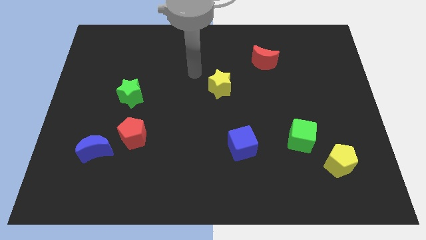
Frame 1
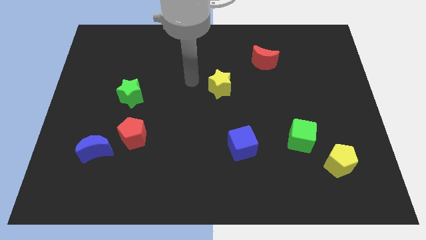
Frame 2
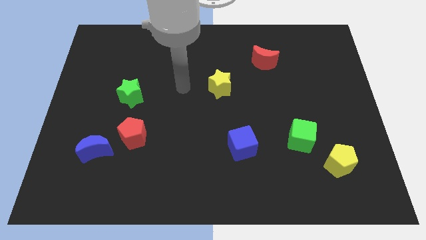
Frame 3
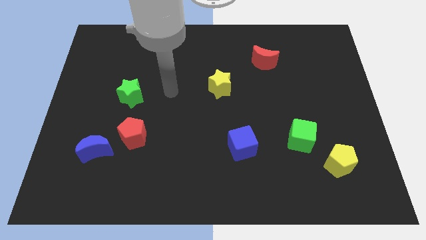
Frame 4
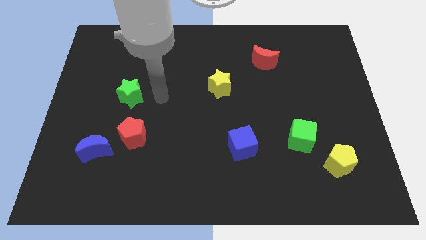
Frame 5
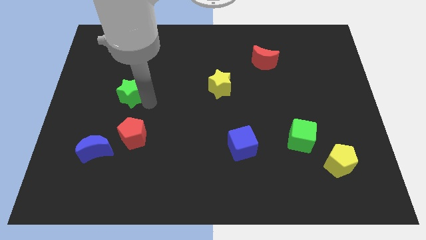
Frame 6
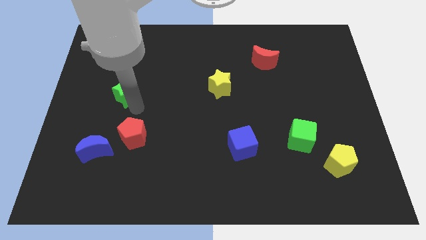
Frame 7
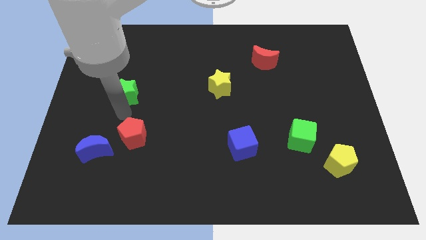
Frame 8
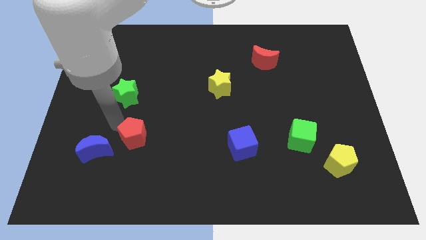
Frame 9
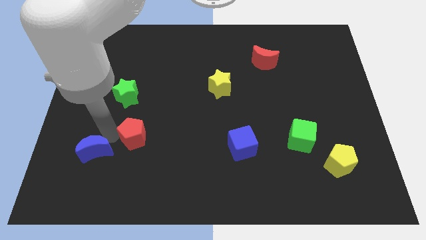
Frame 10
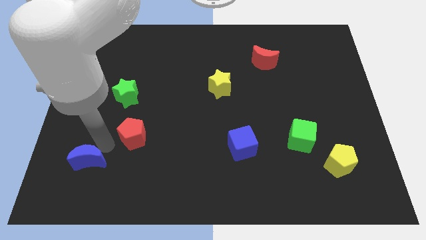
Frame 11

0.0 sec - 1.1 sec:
separate the red pentagon from the blue moon

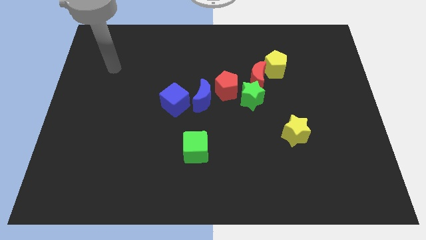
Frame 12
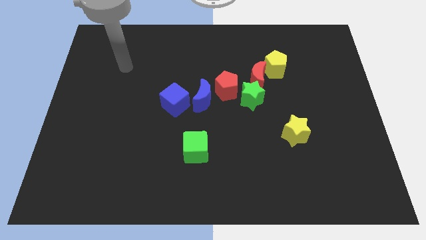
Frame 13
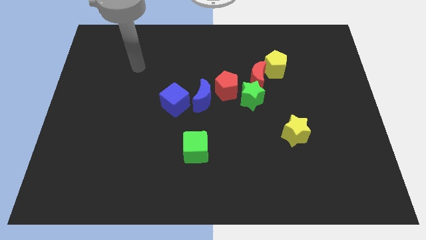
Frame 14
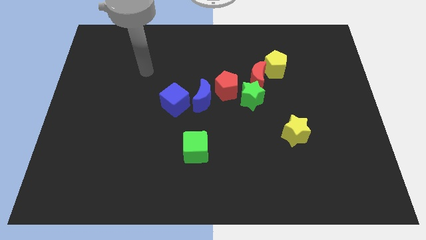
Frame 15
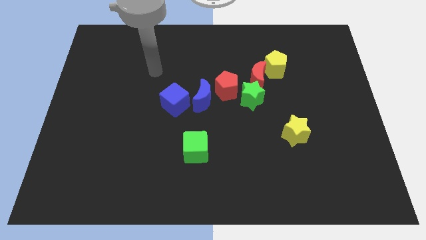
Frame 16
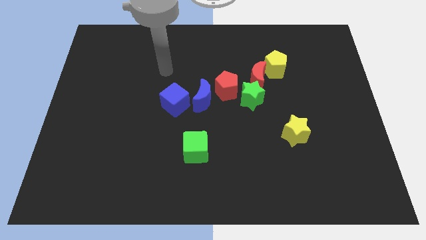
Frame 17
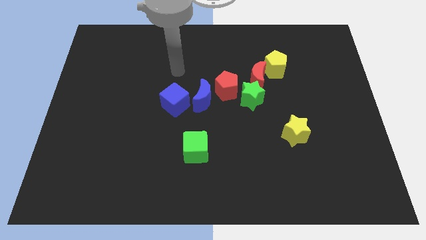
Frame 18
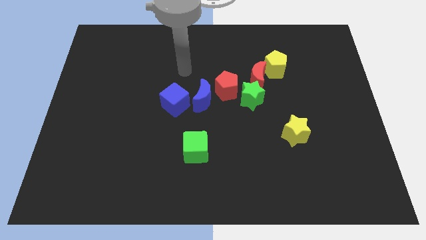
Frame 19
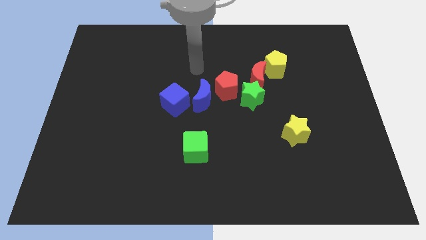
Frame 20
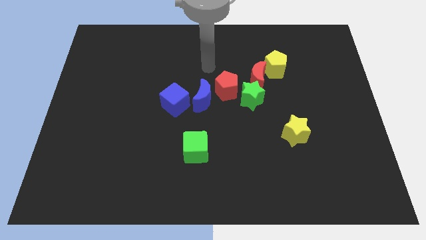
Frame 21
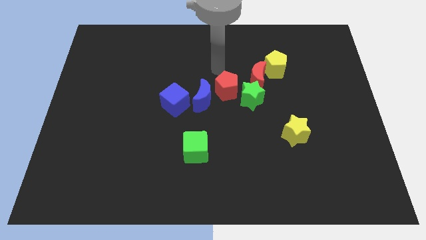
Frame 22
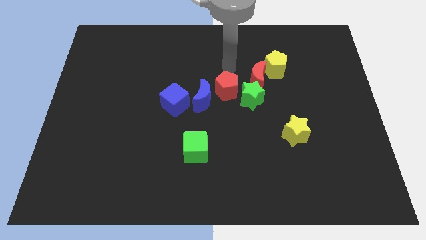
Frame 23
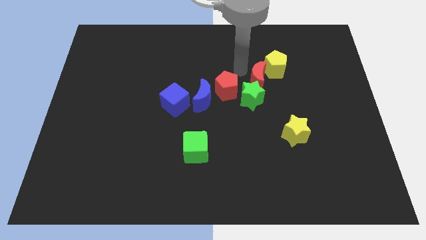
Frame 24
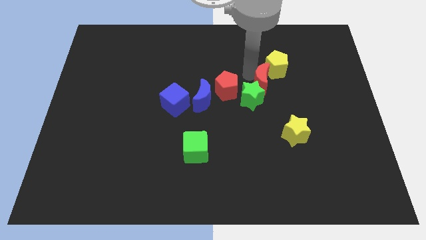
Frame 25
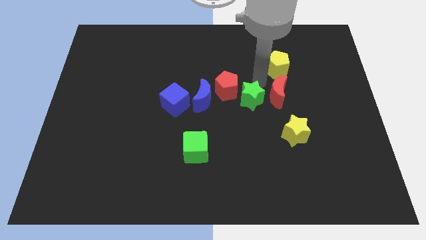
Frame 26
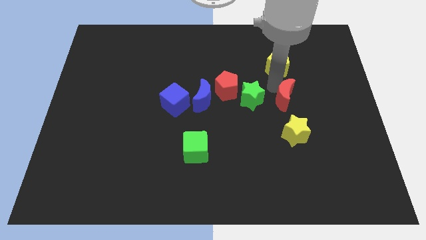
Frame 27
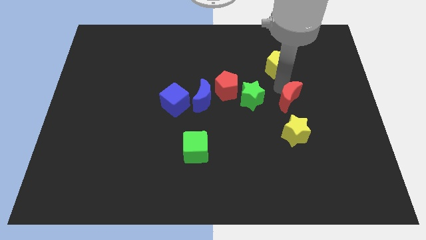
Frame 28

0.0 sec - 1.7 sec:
separate the yellow pentagon from the red moon

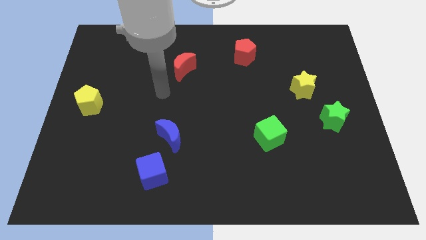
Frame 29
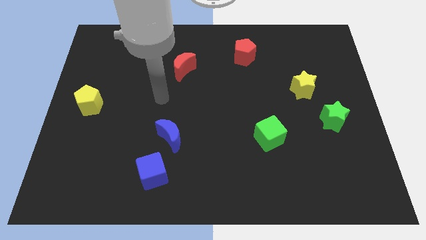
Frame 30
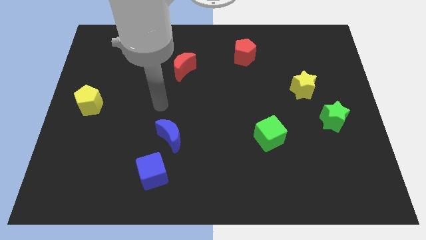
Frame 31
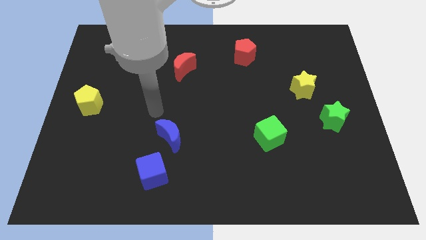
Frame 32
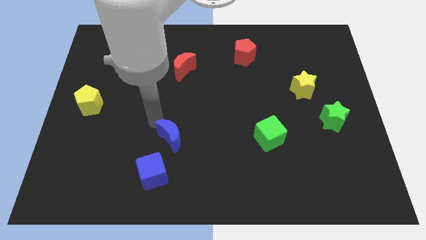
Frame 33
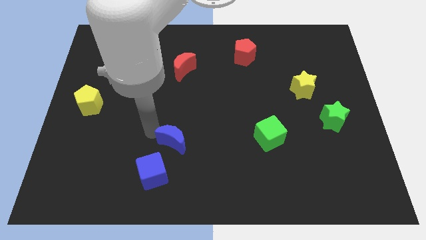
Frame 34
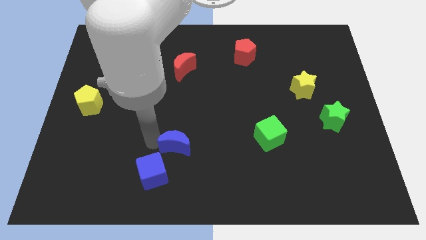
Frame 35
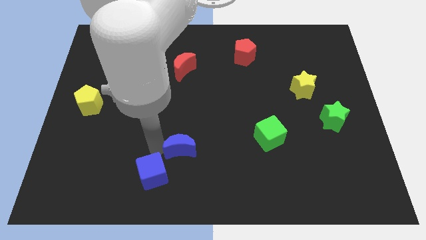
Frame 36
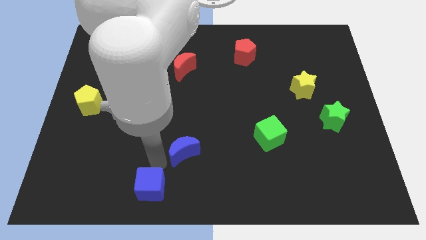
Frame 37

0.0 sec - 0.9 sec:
move the blue moon away from the blue cube

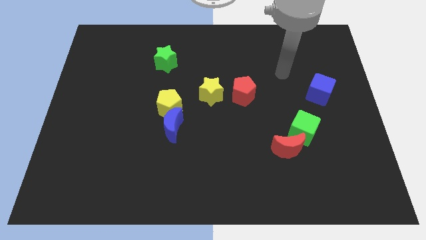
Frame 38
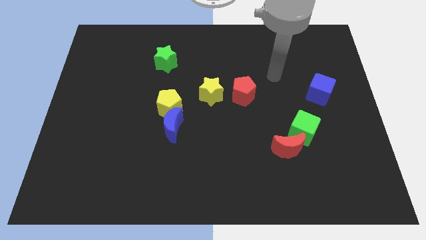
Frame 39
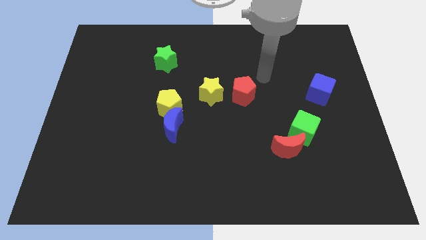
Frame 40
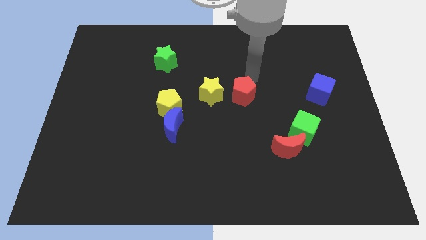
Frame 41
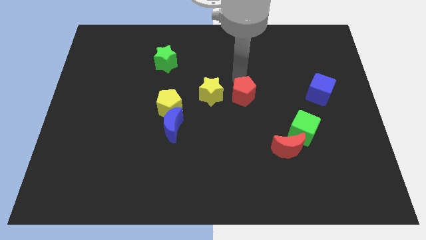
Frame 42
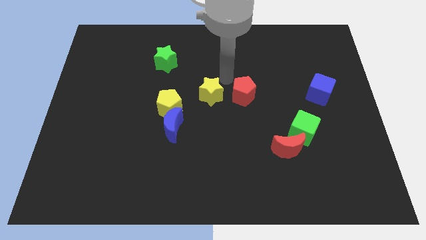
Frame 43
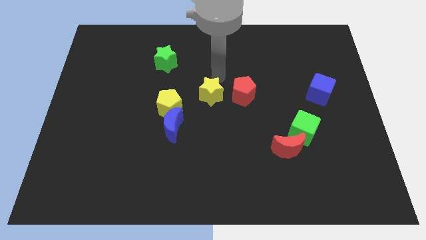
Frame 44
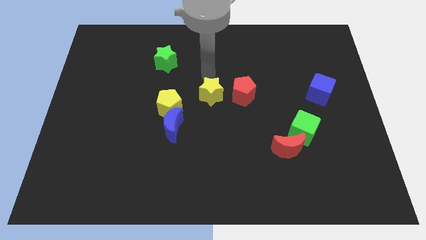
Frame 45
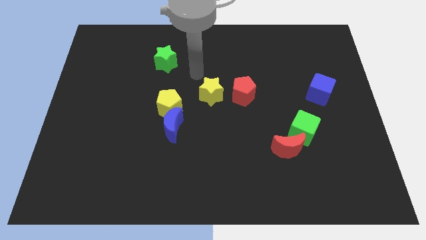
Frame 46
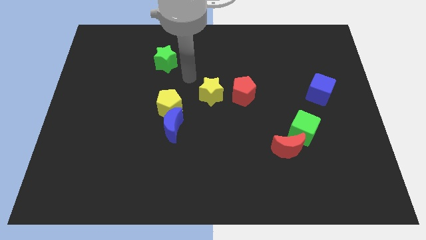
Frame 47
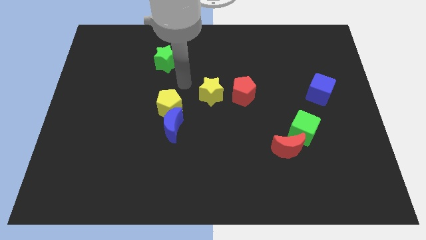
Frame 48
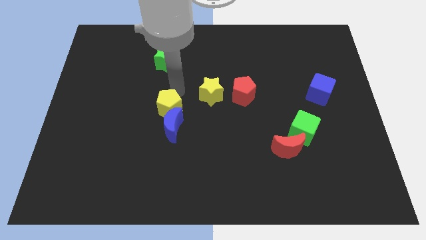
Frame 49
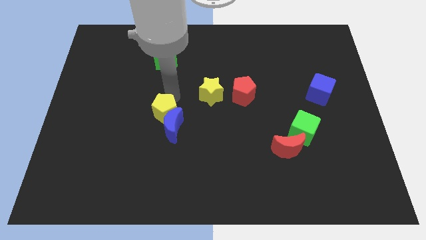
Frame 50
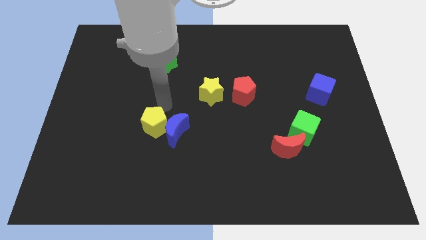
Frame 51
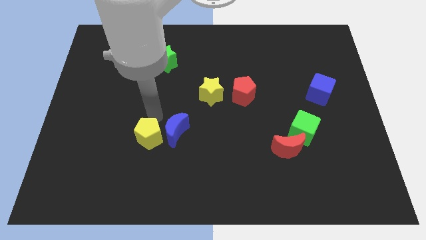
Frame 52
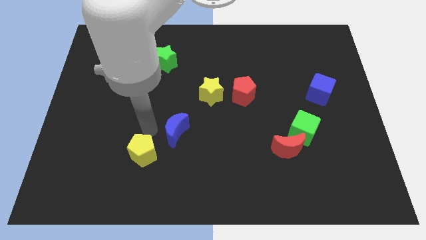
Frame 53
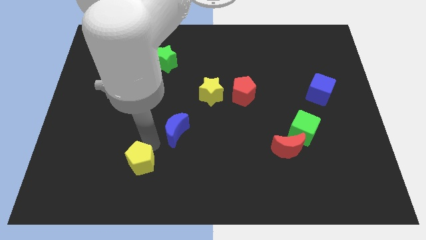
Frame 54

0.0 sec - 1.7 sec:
pull the blue moon apart from the yellow pentagon

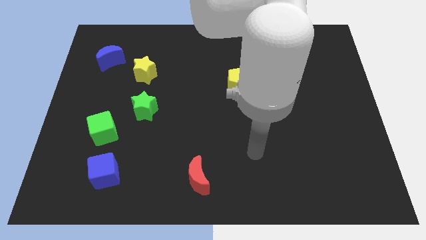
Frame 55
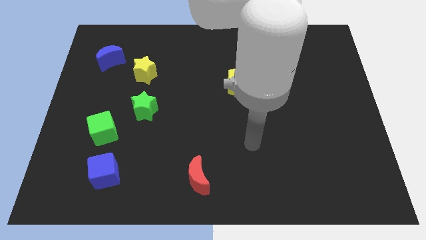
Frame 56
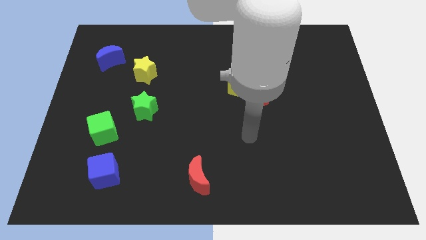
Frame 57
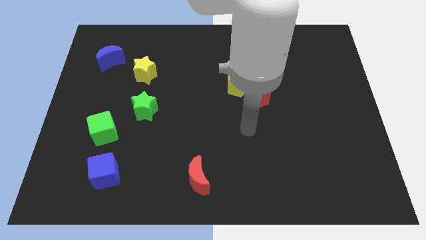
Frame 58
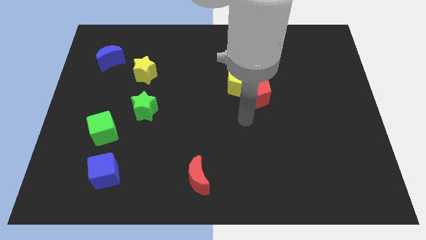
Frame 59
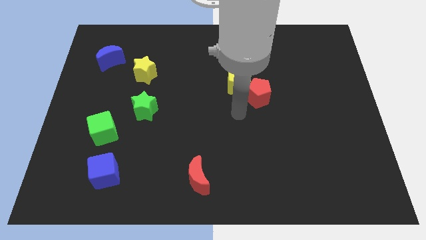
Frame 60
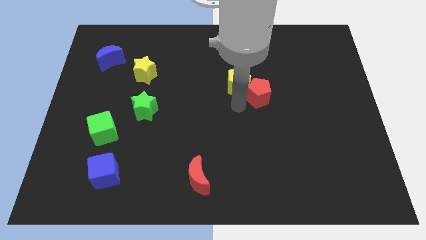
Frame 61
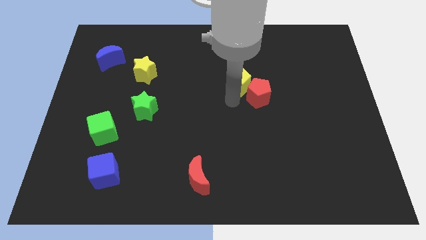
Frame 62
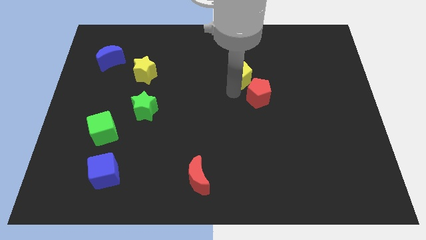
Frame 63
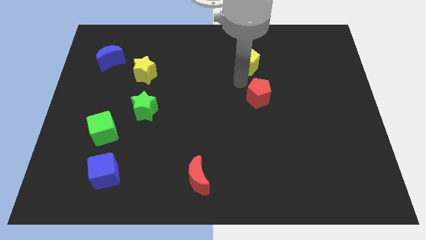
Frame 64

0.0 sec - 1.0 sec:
separate the red pentagon from the yellow pentagon

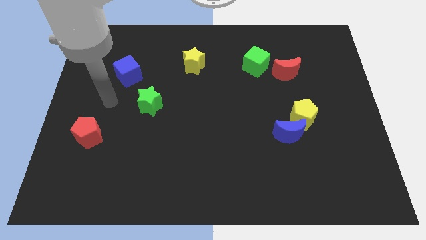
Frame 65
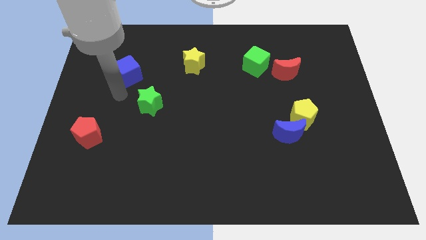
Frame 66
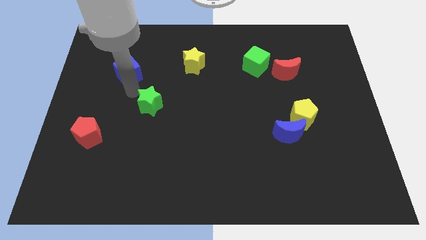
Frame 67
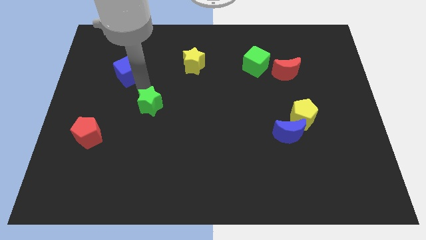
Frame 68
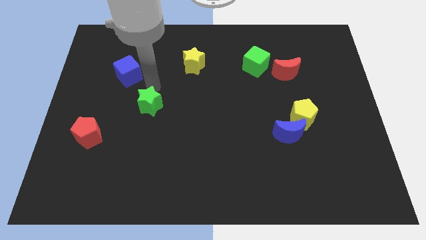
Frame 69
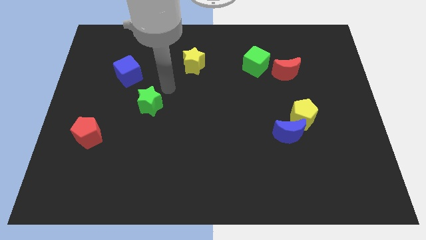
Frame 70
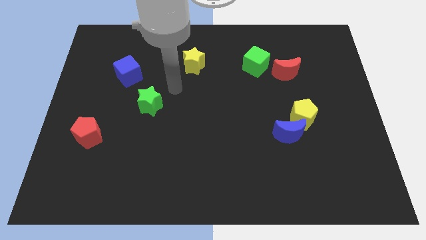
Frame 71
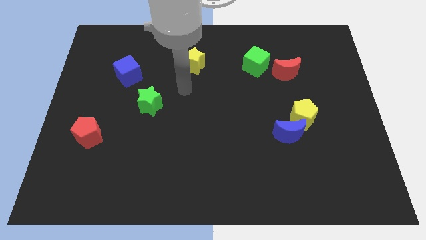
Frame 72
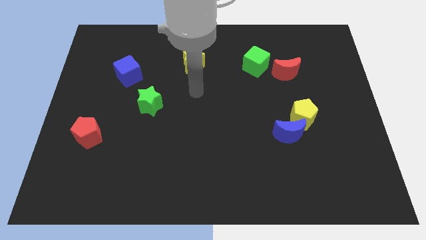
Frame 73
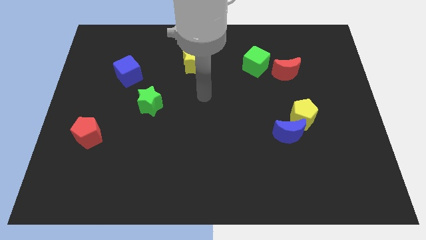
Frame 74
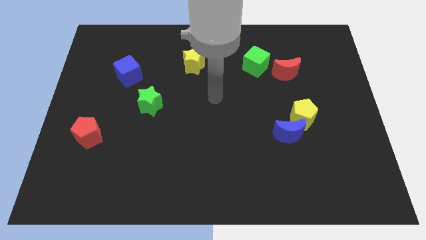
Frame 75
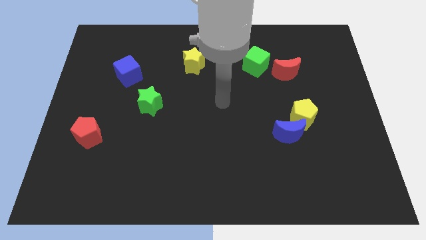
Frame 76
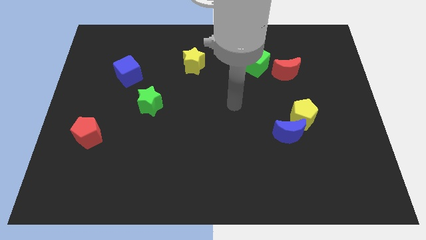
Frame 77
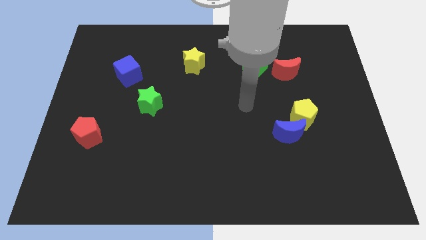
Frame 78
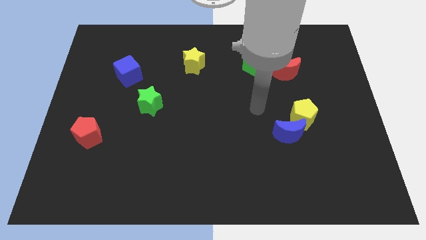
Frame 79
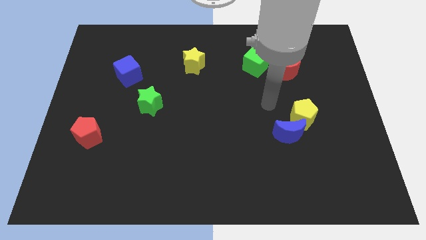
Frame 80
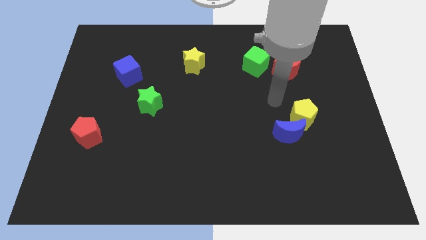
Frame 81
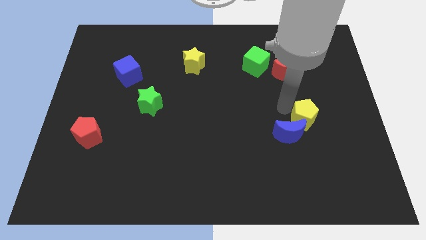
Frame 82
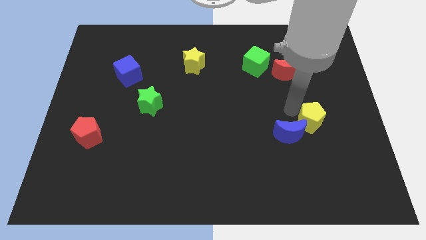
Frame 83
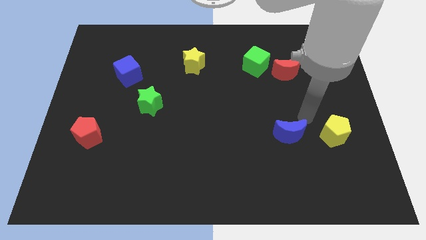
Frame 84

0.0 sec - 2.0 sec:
move the blue moon away from the yellow pentagon

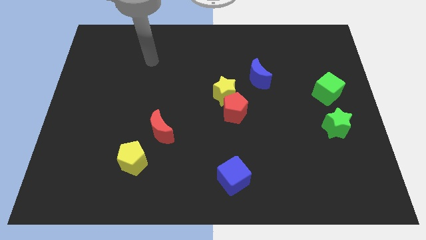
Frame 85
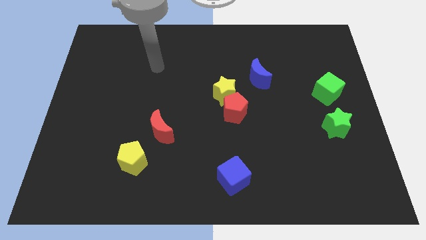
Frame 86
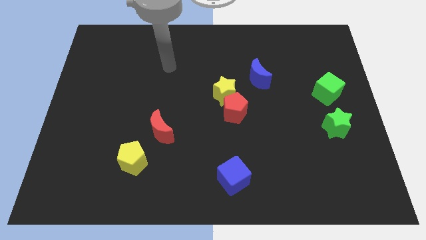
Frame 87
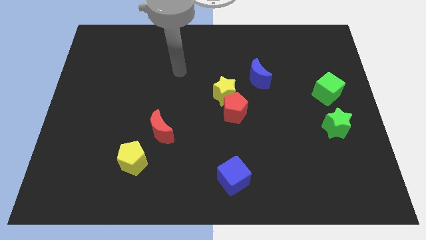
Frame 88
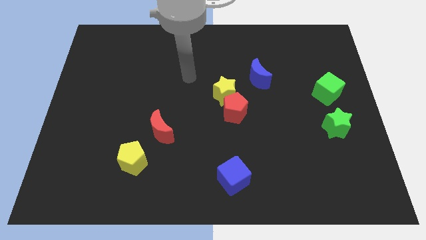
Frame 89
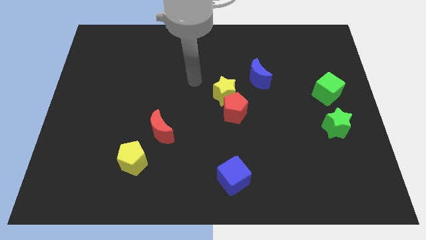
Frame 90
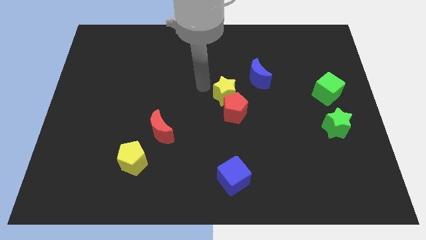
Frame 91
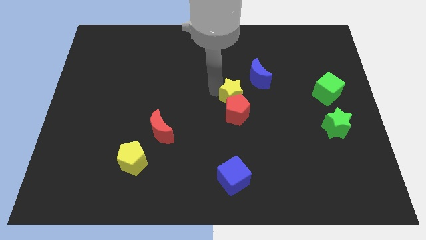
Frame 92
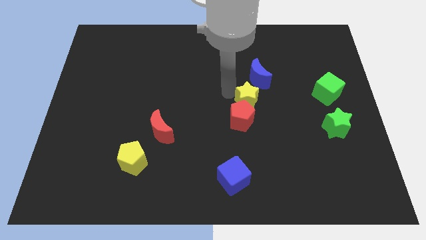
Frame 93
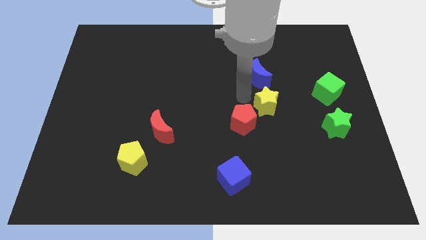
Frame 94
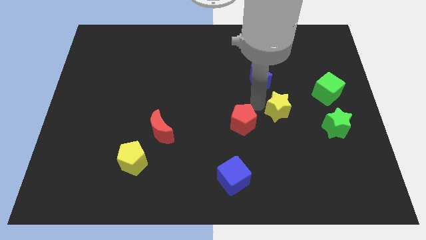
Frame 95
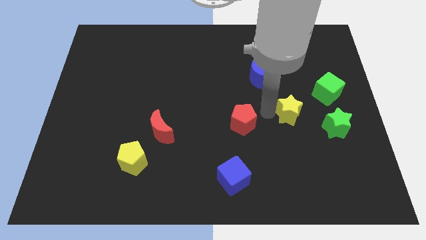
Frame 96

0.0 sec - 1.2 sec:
move the red pentagon away from the yellow star
